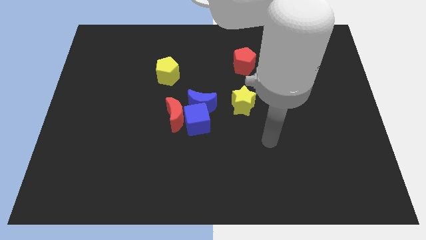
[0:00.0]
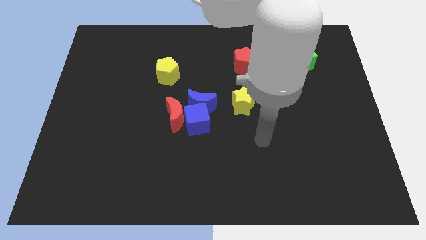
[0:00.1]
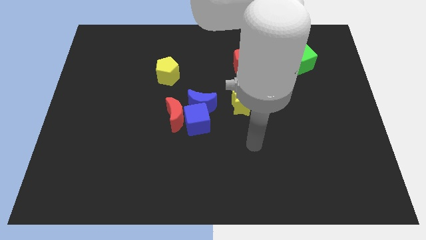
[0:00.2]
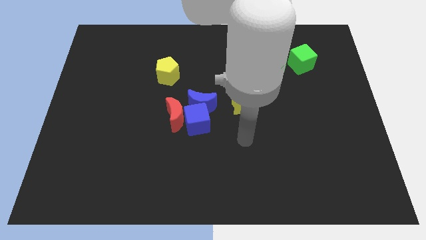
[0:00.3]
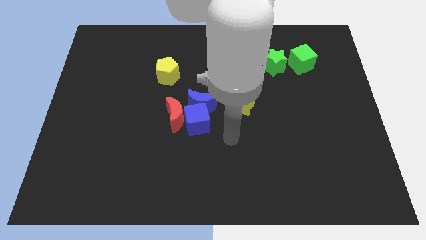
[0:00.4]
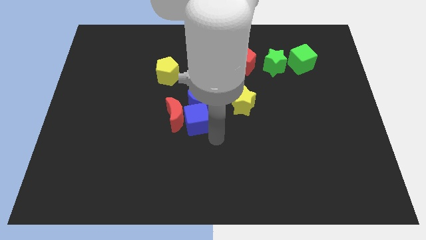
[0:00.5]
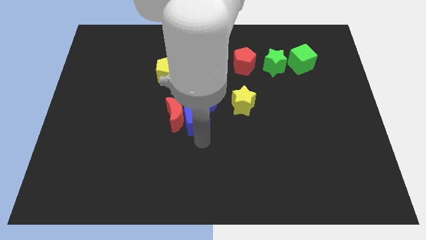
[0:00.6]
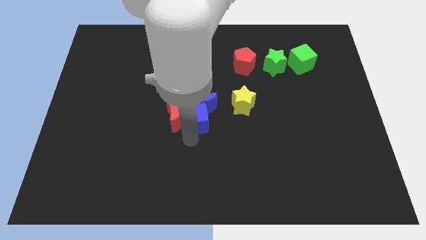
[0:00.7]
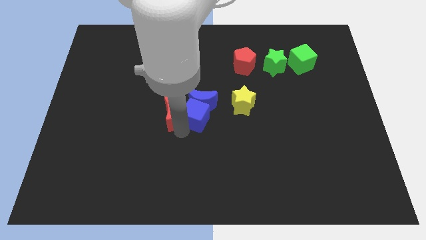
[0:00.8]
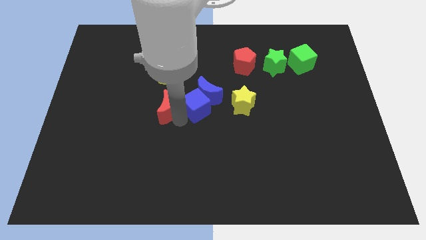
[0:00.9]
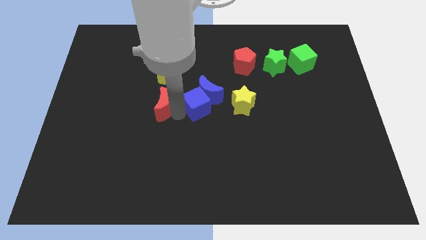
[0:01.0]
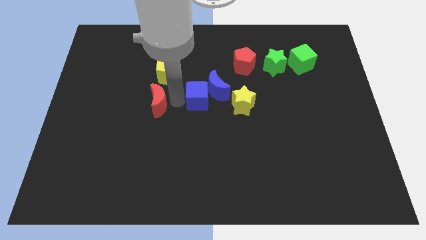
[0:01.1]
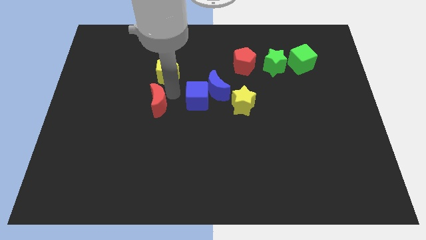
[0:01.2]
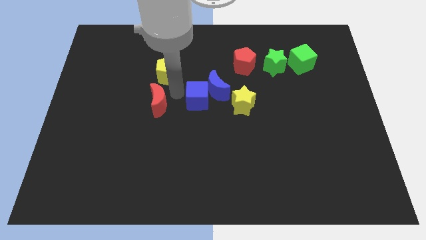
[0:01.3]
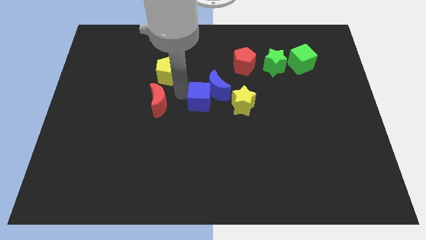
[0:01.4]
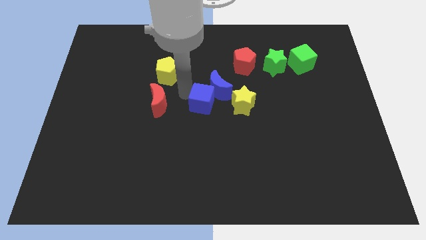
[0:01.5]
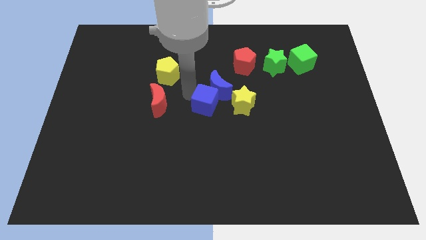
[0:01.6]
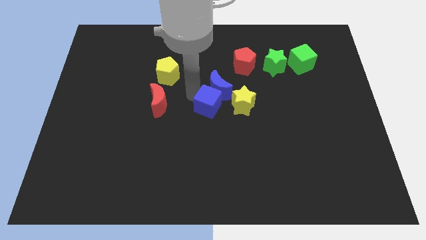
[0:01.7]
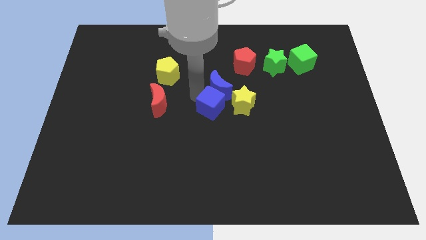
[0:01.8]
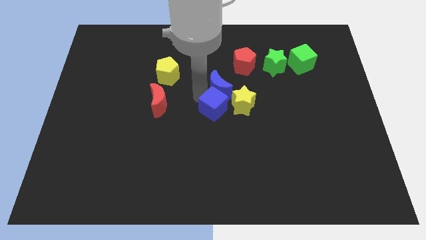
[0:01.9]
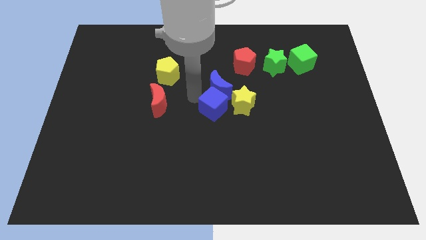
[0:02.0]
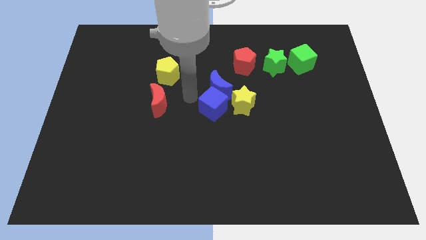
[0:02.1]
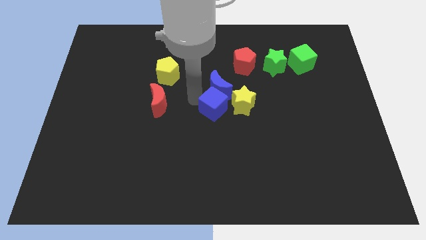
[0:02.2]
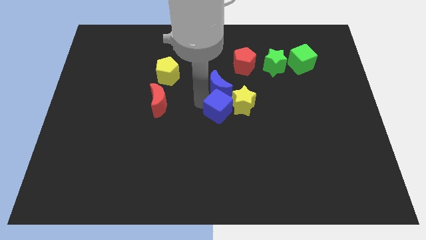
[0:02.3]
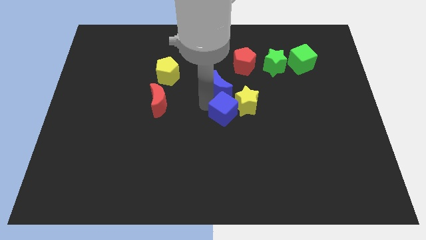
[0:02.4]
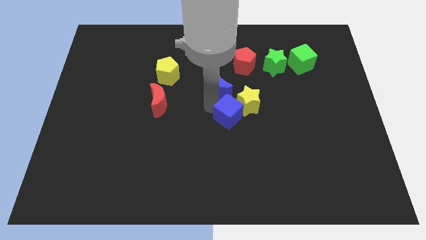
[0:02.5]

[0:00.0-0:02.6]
separate the blue cube from the blue moon and red moon

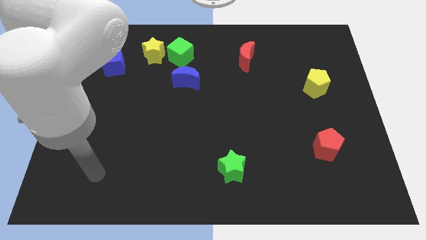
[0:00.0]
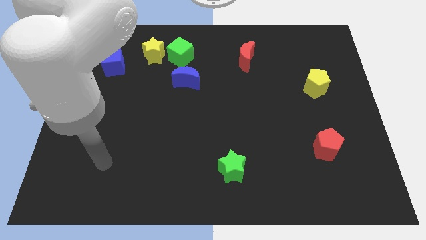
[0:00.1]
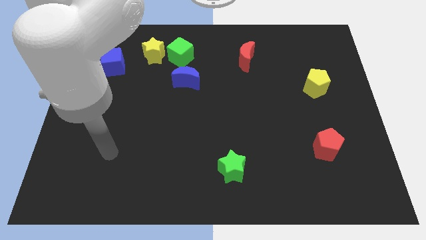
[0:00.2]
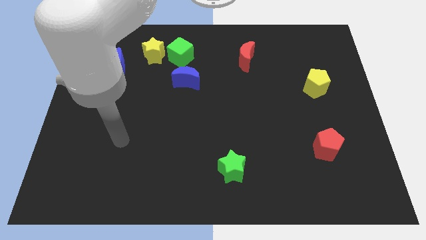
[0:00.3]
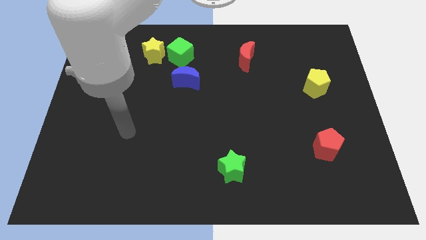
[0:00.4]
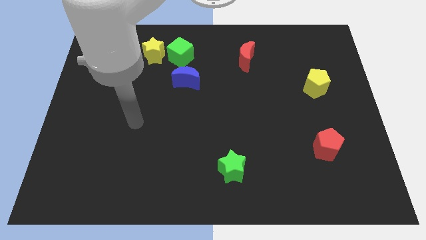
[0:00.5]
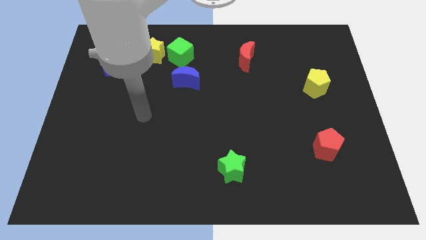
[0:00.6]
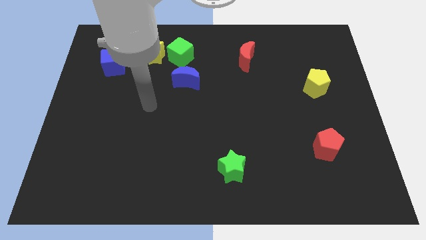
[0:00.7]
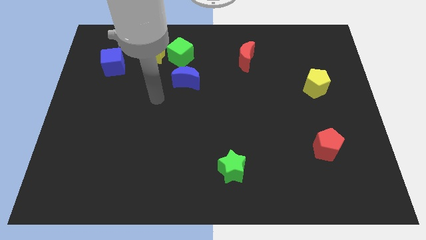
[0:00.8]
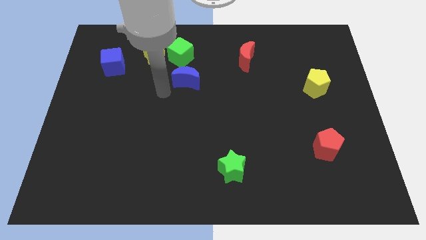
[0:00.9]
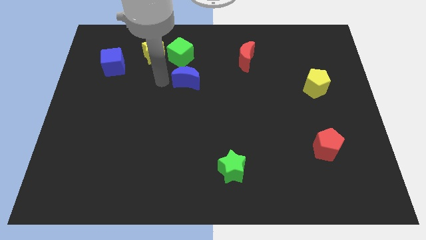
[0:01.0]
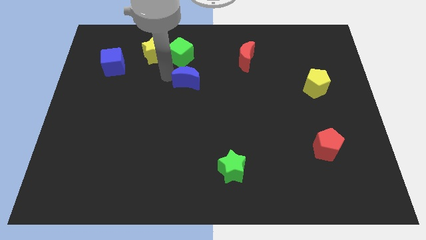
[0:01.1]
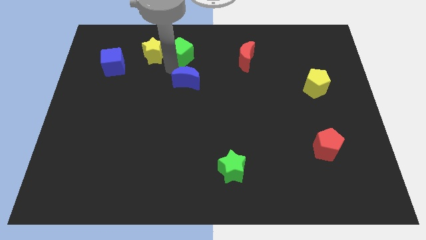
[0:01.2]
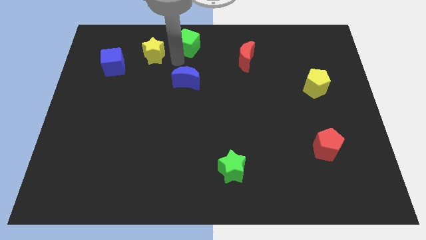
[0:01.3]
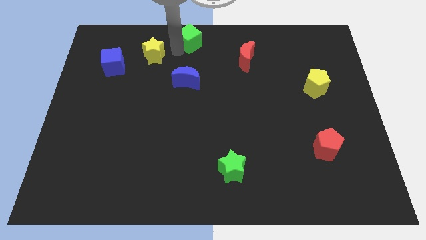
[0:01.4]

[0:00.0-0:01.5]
pull the yellow star apart from the green cube

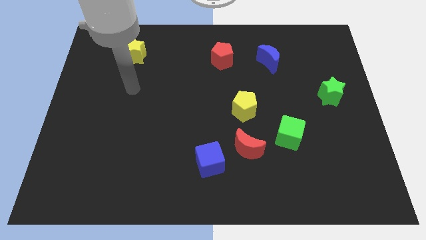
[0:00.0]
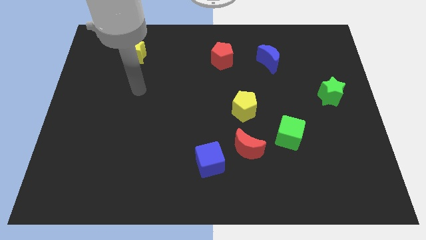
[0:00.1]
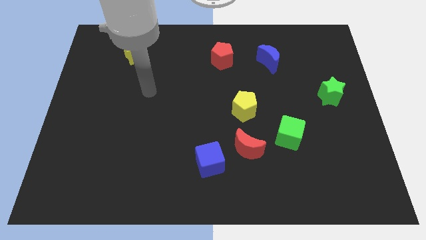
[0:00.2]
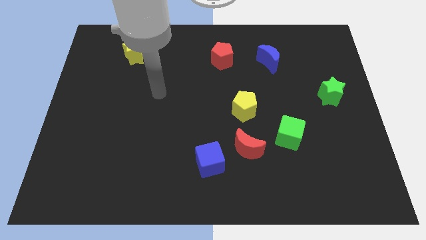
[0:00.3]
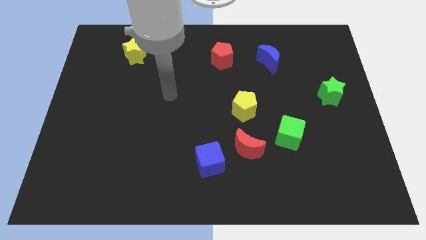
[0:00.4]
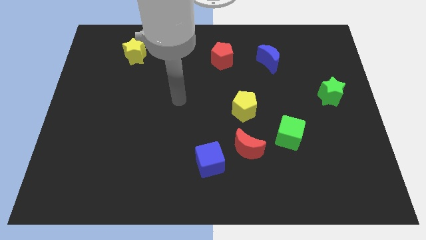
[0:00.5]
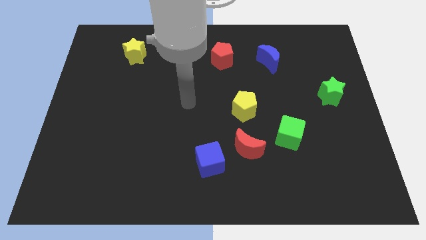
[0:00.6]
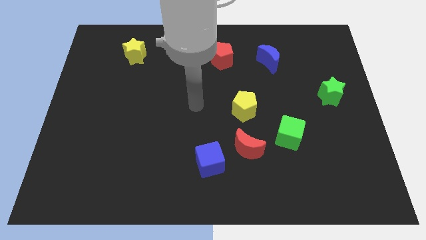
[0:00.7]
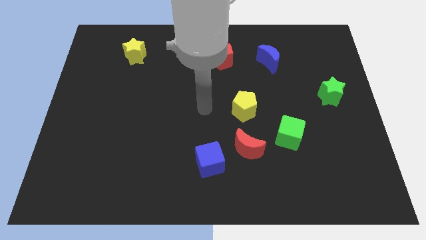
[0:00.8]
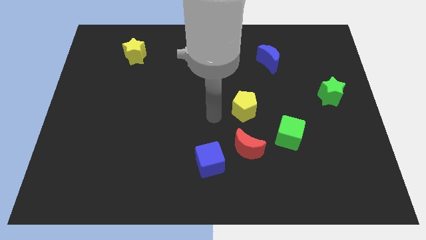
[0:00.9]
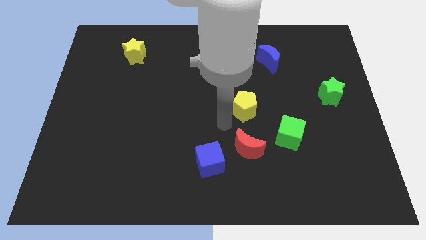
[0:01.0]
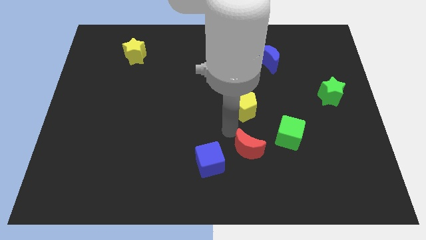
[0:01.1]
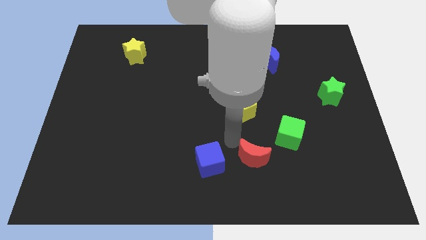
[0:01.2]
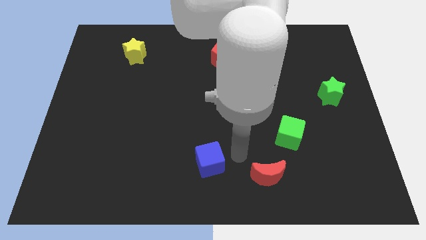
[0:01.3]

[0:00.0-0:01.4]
move the blue cube away from the red moon

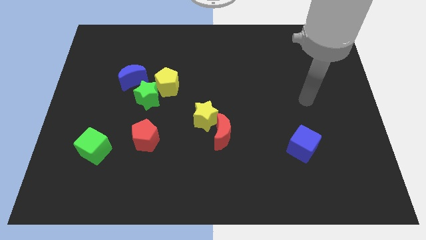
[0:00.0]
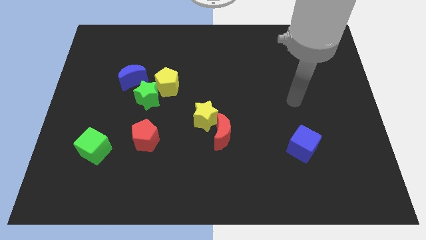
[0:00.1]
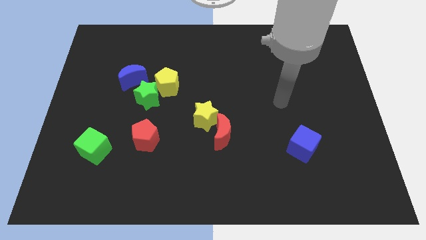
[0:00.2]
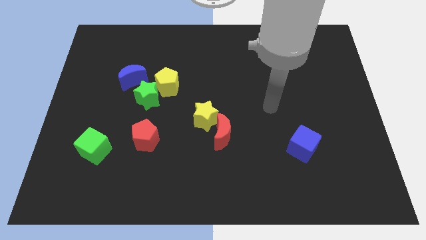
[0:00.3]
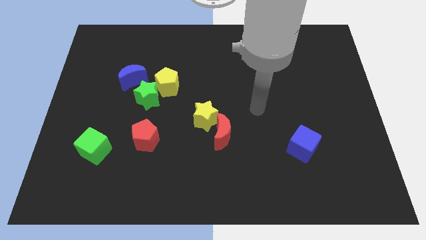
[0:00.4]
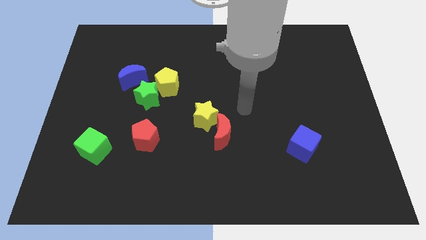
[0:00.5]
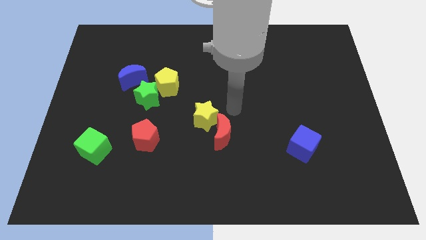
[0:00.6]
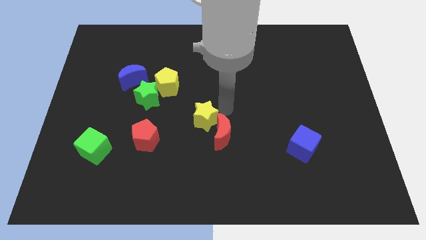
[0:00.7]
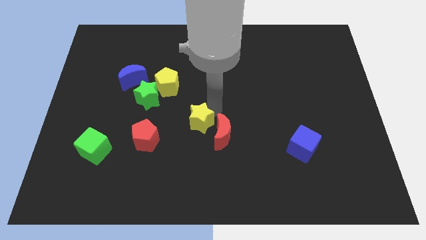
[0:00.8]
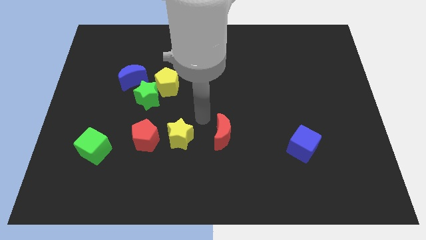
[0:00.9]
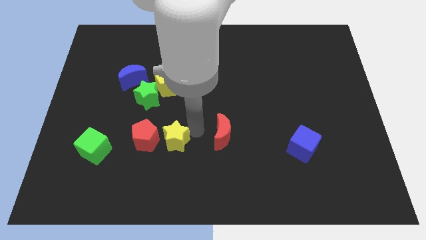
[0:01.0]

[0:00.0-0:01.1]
pull the red moon apart from the yellow star

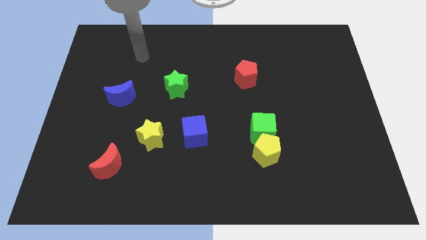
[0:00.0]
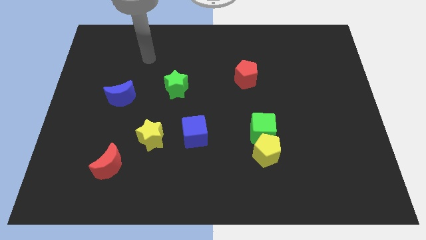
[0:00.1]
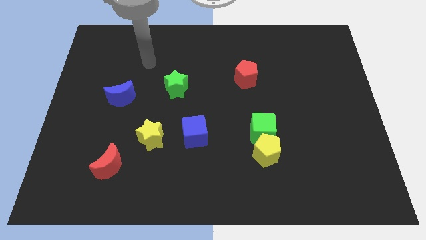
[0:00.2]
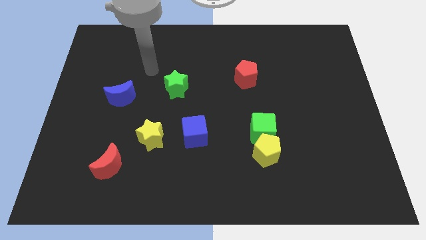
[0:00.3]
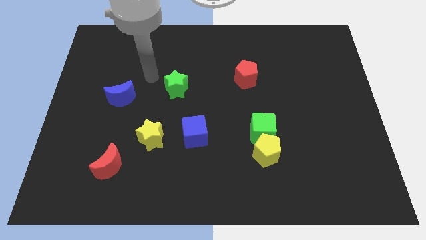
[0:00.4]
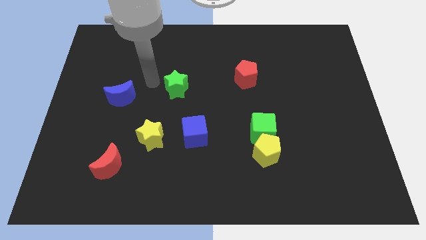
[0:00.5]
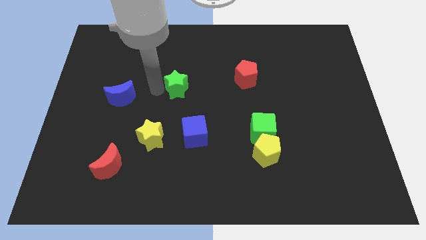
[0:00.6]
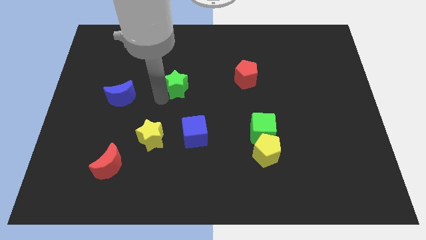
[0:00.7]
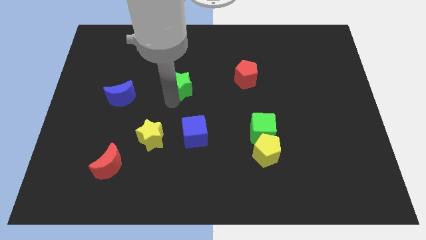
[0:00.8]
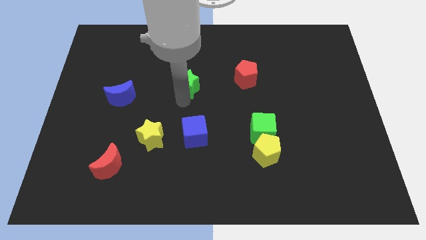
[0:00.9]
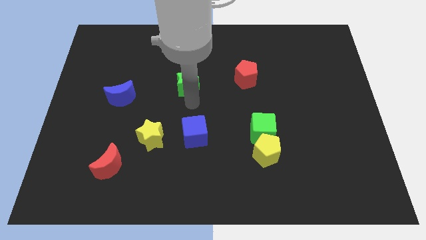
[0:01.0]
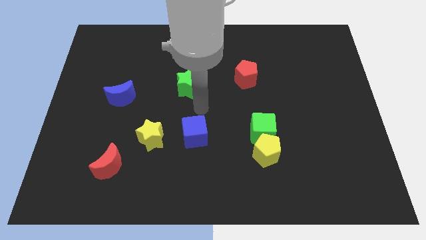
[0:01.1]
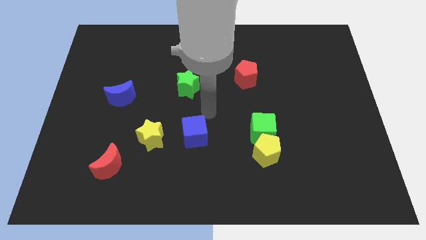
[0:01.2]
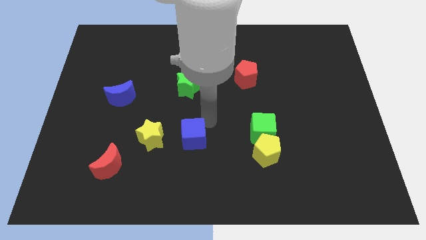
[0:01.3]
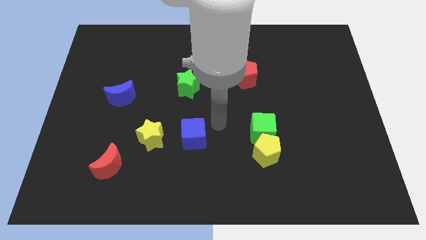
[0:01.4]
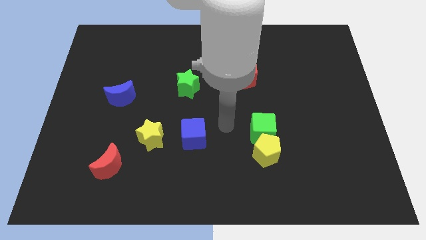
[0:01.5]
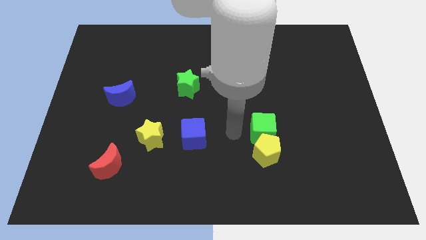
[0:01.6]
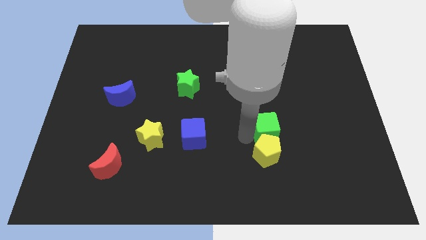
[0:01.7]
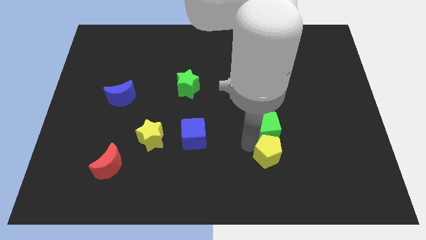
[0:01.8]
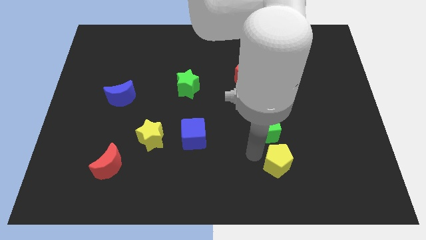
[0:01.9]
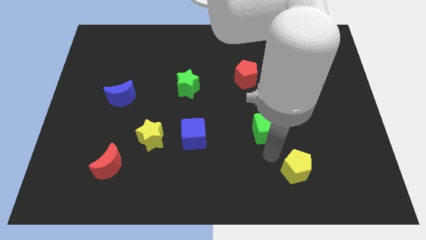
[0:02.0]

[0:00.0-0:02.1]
pull the green cube apart from the yellow pentagon

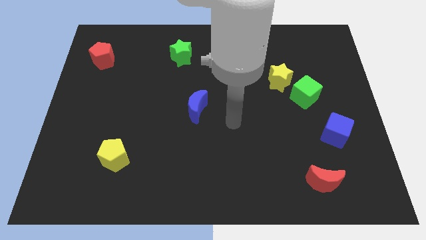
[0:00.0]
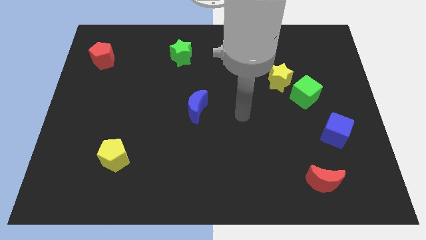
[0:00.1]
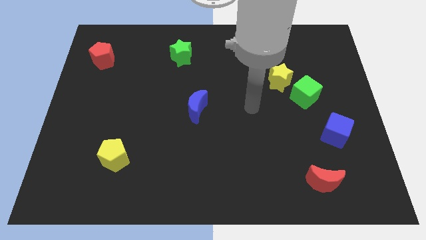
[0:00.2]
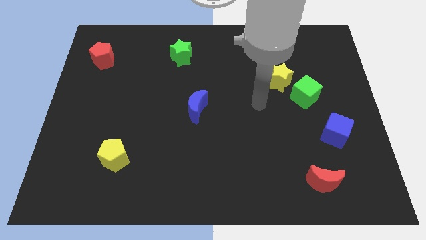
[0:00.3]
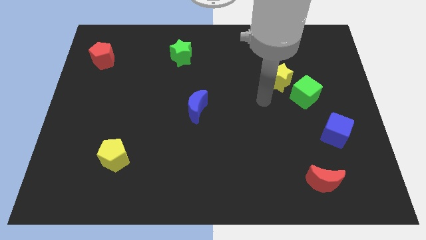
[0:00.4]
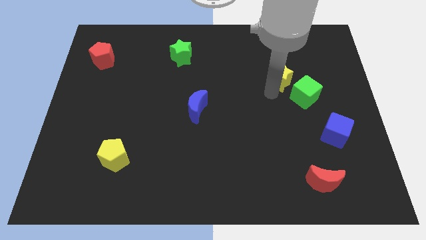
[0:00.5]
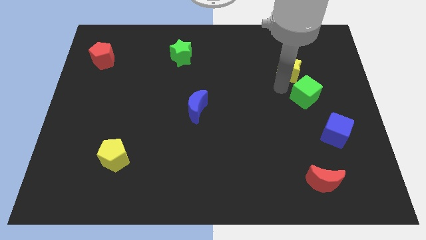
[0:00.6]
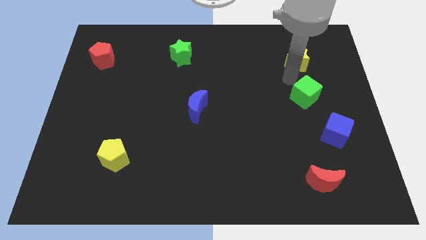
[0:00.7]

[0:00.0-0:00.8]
move the green cube away from the yellow star
